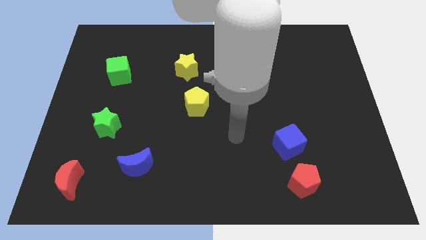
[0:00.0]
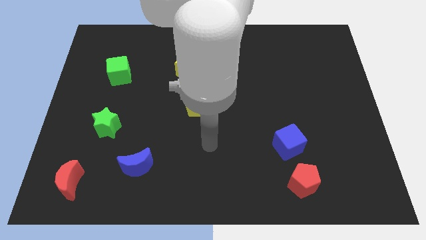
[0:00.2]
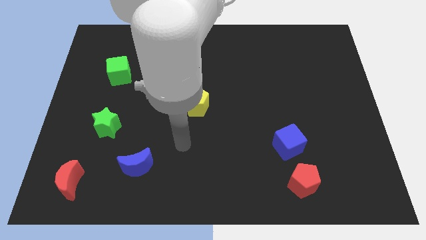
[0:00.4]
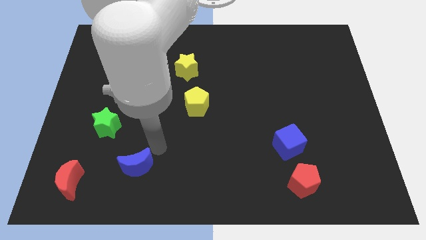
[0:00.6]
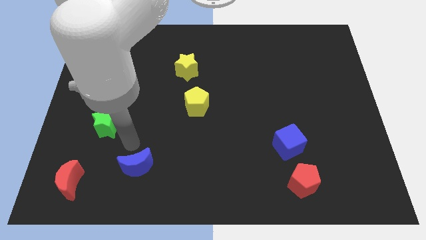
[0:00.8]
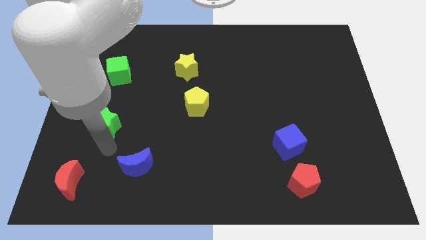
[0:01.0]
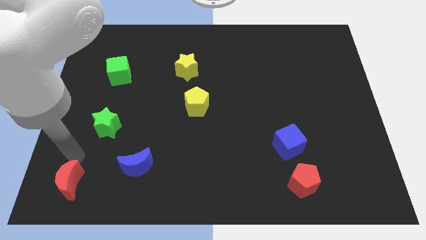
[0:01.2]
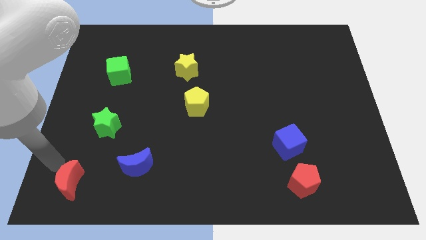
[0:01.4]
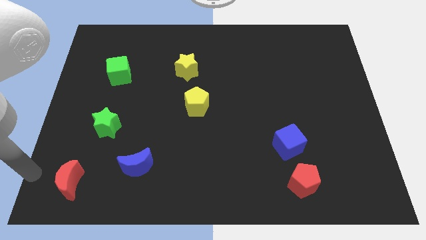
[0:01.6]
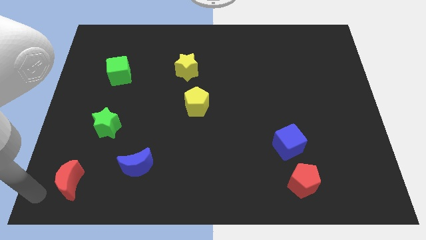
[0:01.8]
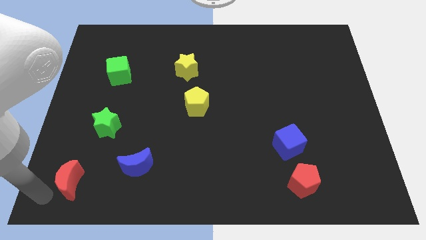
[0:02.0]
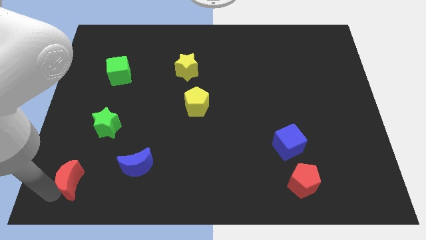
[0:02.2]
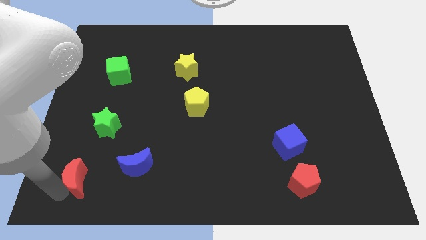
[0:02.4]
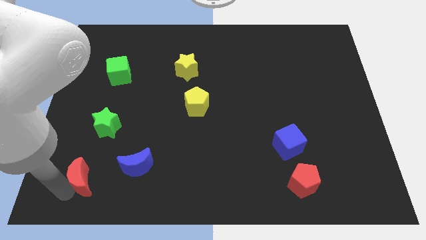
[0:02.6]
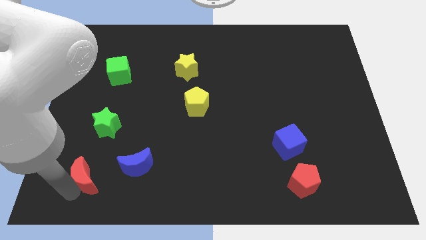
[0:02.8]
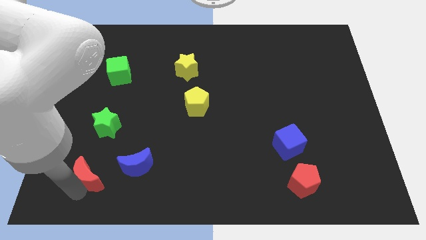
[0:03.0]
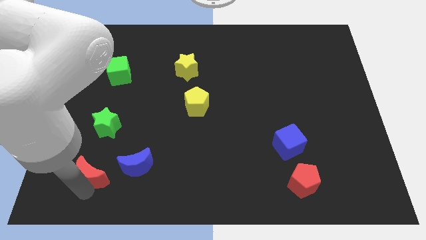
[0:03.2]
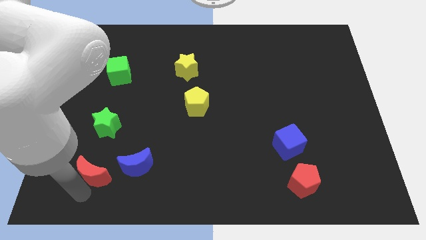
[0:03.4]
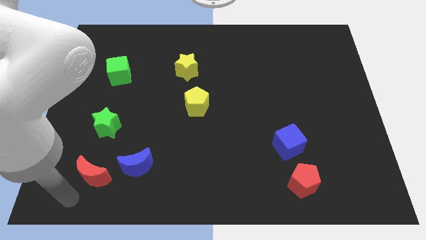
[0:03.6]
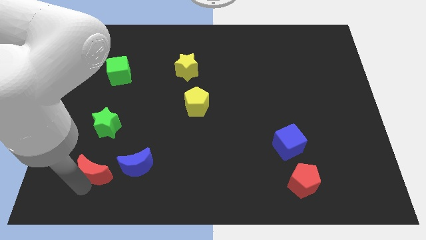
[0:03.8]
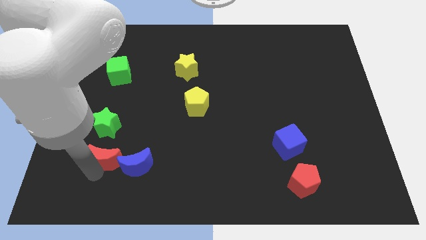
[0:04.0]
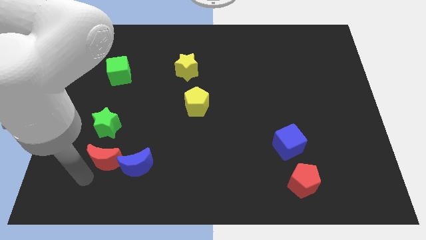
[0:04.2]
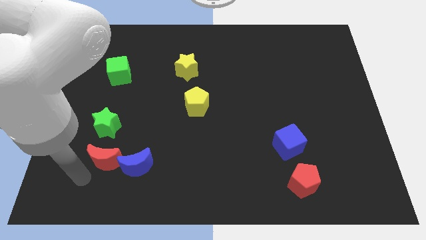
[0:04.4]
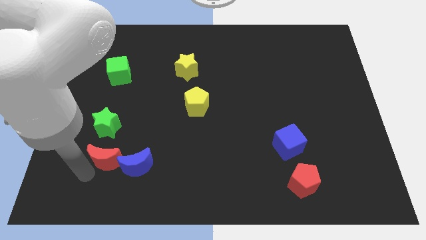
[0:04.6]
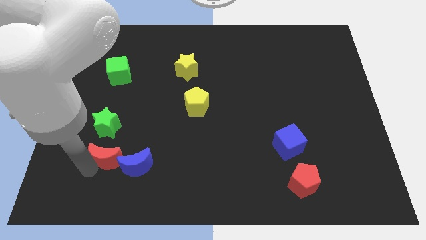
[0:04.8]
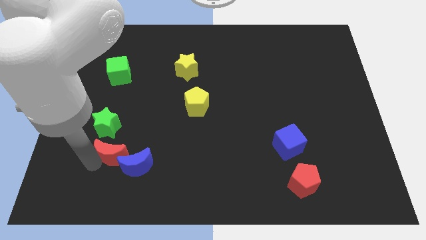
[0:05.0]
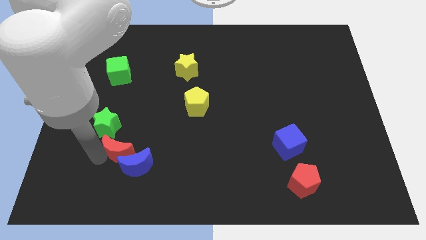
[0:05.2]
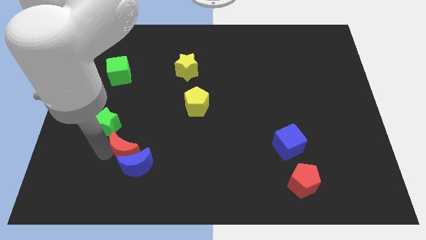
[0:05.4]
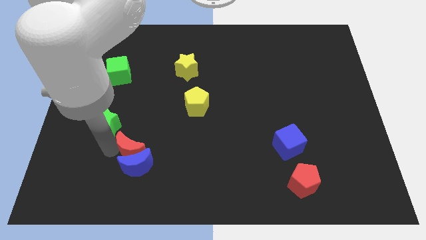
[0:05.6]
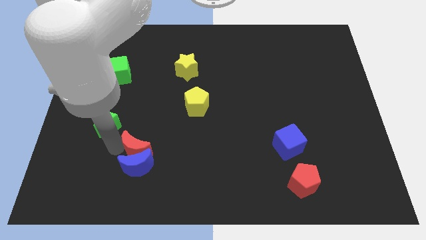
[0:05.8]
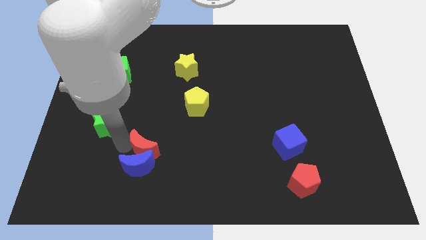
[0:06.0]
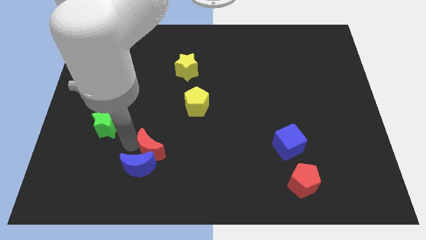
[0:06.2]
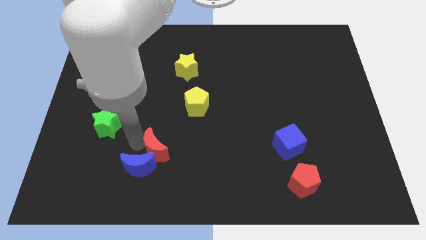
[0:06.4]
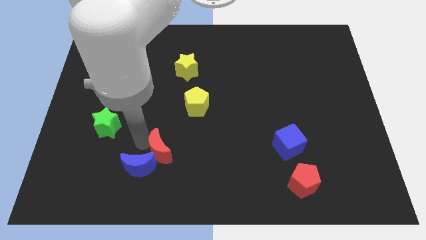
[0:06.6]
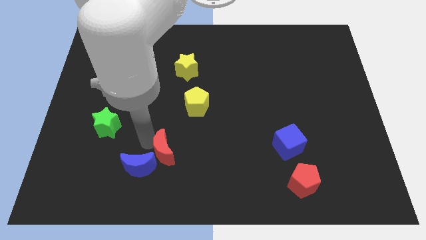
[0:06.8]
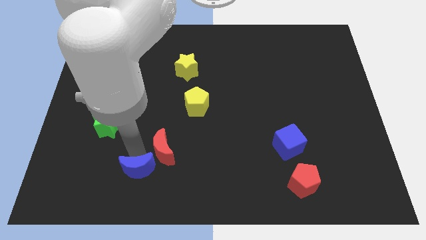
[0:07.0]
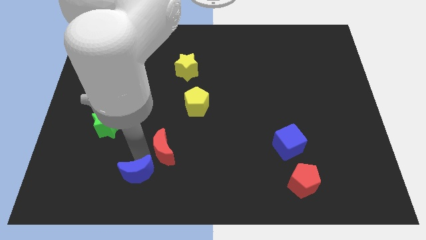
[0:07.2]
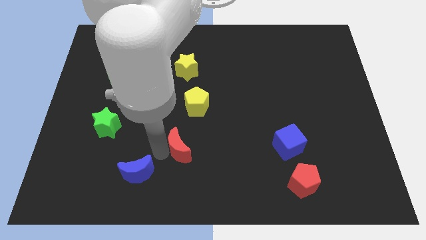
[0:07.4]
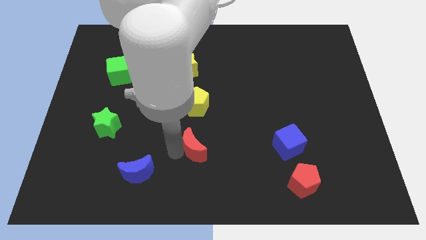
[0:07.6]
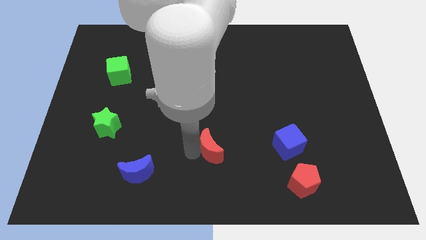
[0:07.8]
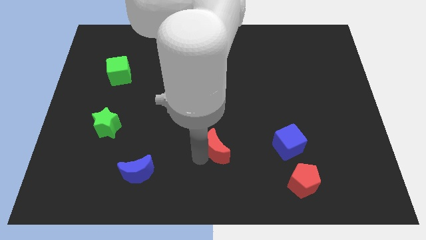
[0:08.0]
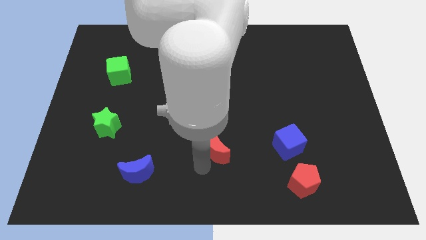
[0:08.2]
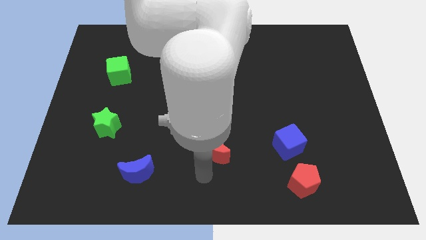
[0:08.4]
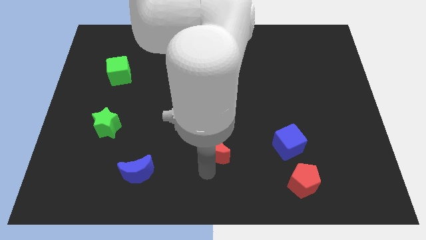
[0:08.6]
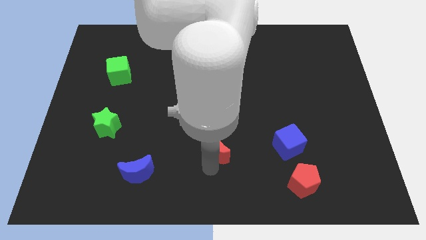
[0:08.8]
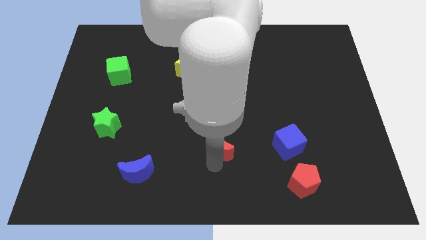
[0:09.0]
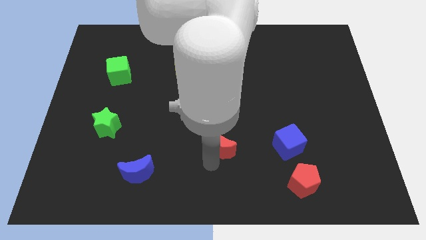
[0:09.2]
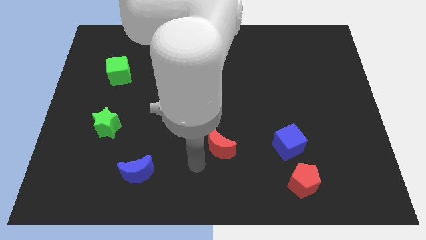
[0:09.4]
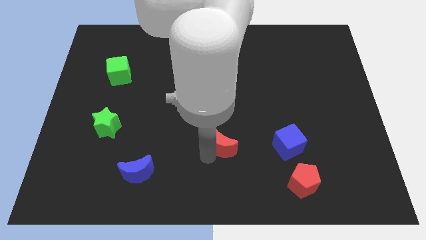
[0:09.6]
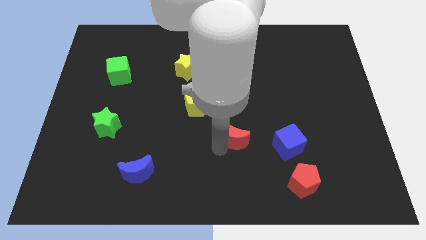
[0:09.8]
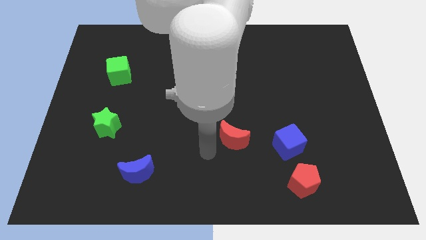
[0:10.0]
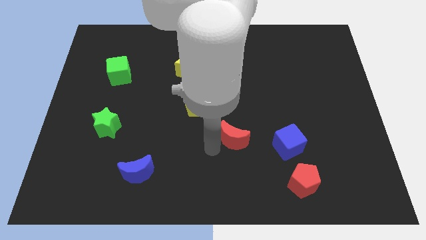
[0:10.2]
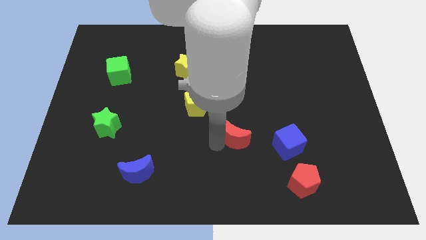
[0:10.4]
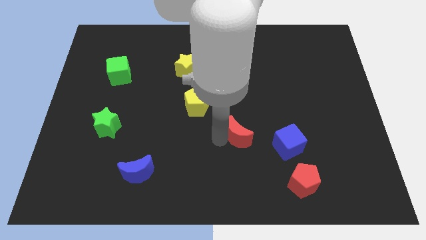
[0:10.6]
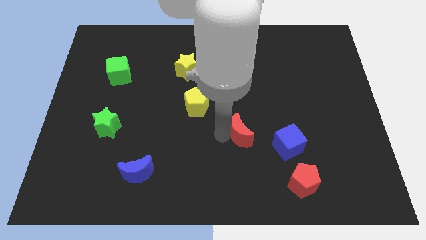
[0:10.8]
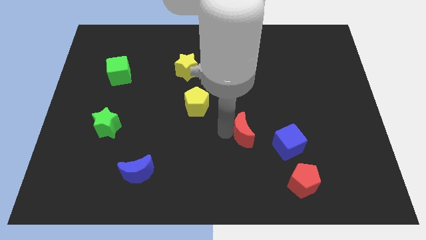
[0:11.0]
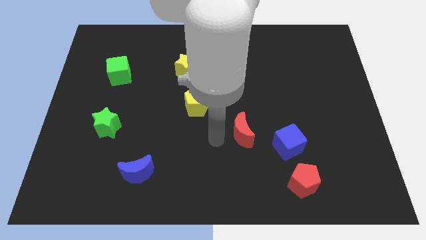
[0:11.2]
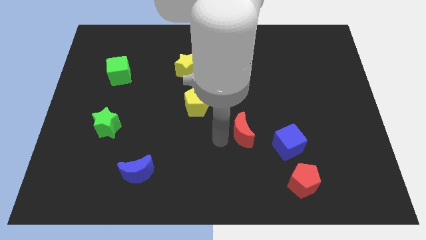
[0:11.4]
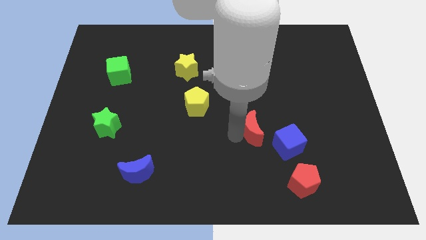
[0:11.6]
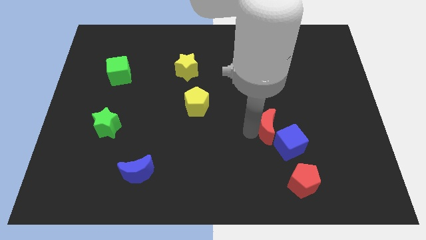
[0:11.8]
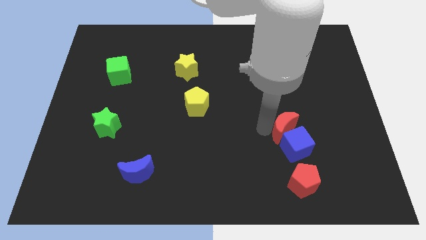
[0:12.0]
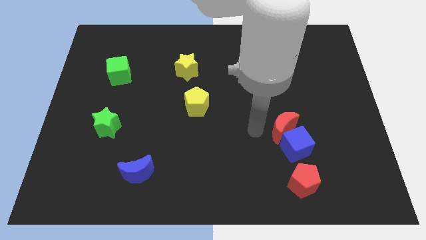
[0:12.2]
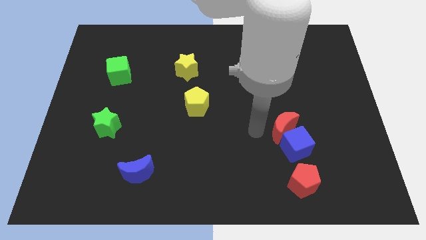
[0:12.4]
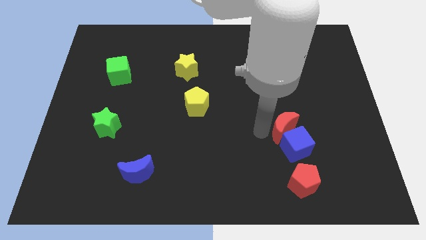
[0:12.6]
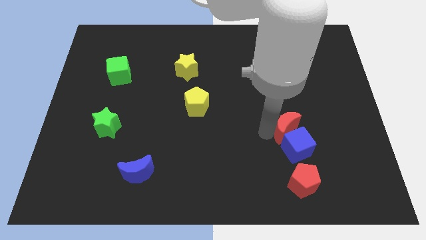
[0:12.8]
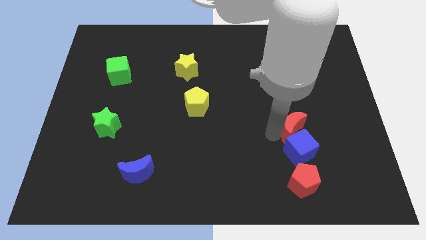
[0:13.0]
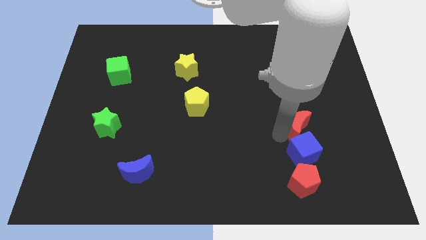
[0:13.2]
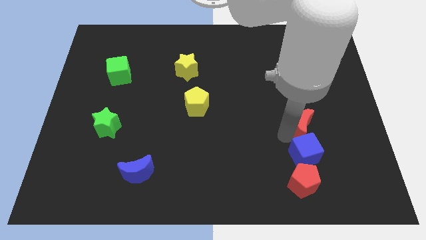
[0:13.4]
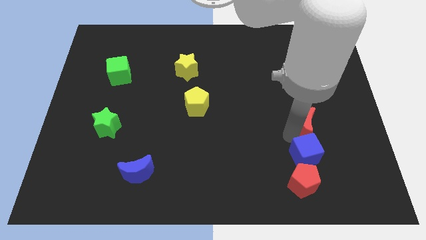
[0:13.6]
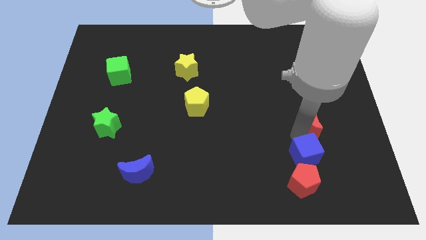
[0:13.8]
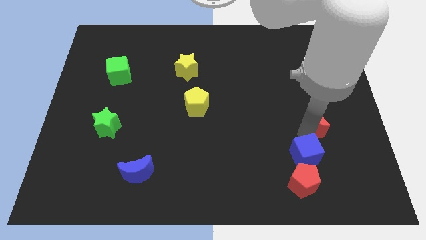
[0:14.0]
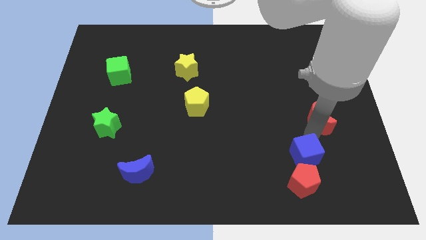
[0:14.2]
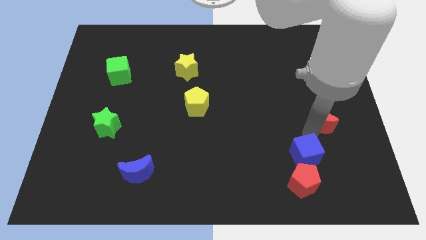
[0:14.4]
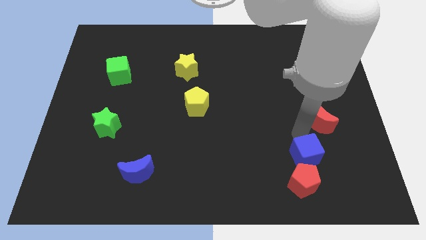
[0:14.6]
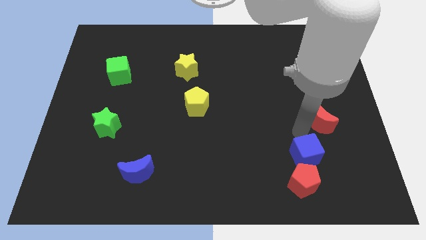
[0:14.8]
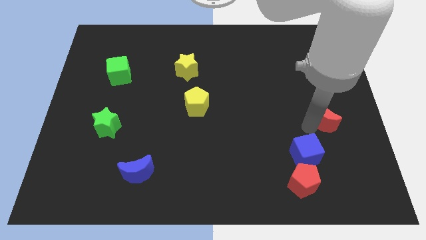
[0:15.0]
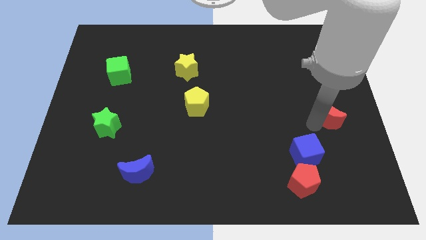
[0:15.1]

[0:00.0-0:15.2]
push the red moon to the right side
